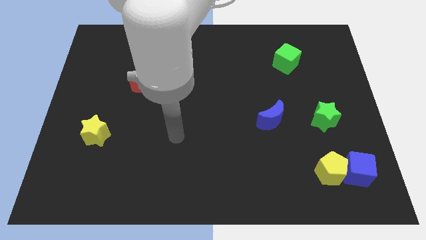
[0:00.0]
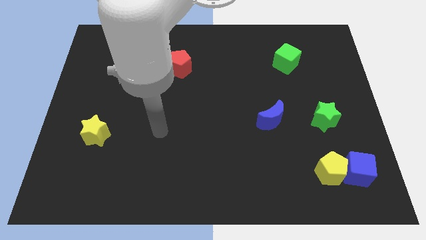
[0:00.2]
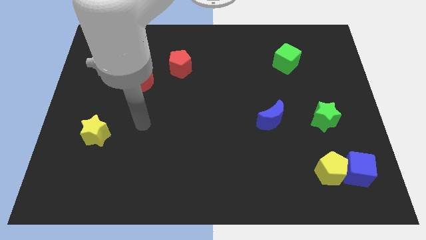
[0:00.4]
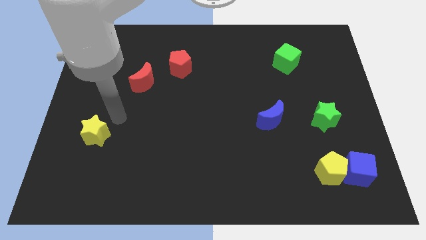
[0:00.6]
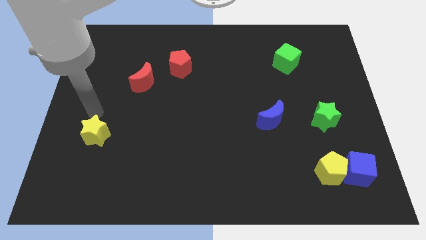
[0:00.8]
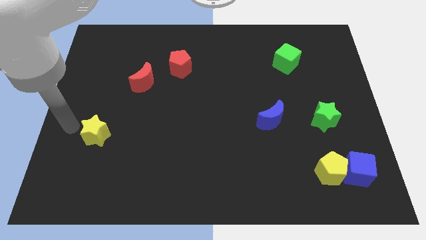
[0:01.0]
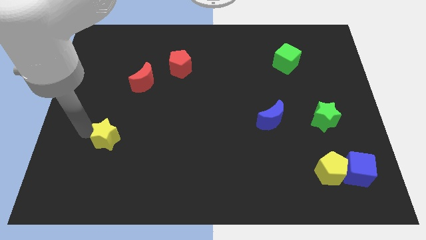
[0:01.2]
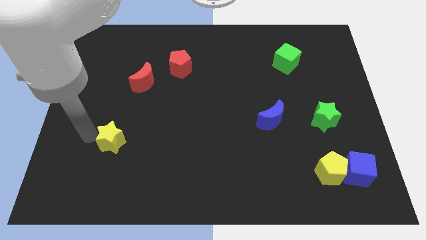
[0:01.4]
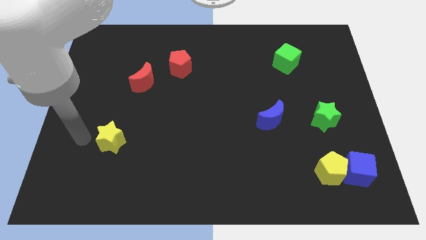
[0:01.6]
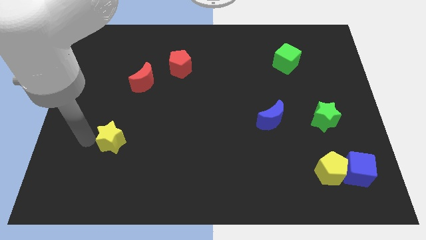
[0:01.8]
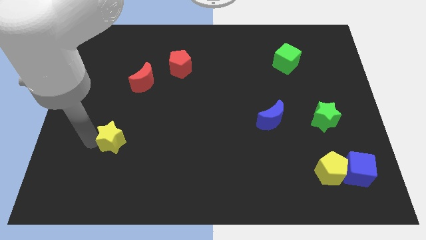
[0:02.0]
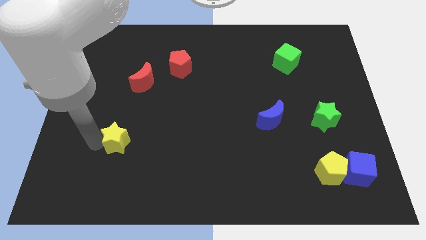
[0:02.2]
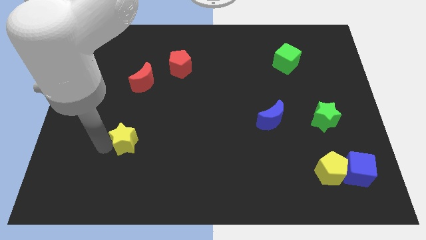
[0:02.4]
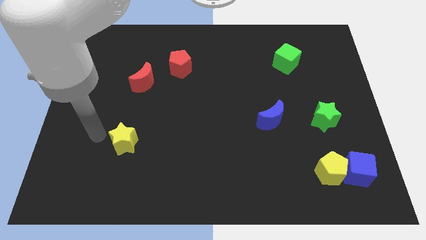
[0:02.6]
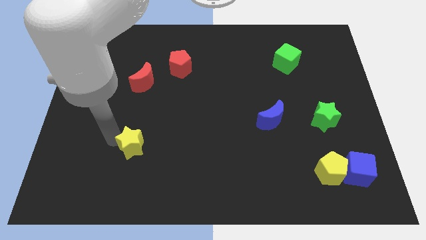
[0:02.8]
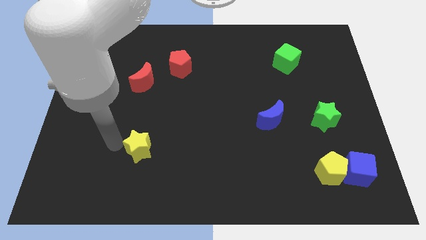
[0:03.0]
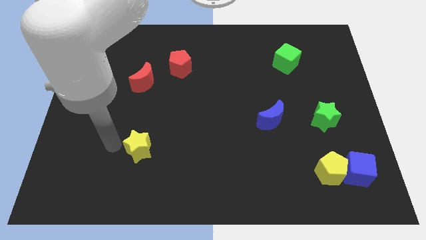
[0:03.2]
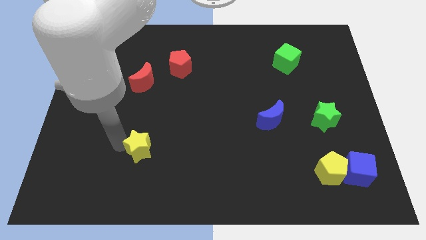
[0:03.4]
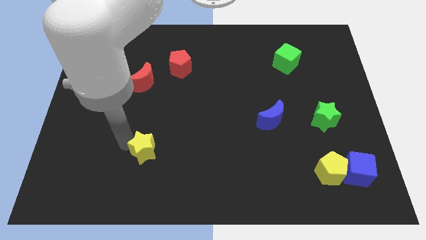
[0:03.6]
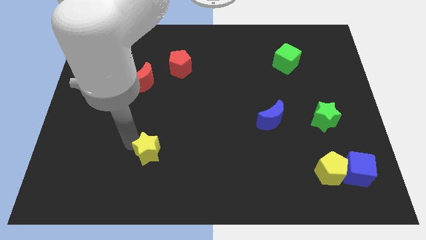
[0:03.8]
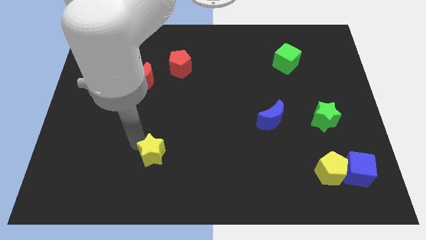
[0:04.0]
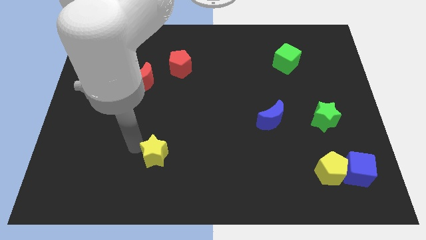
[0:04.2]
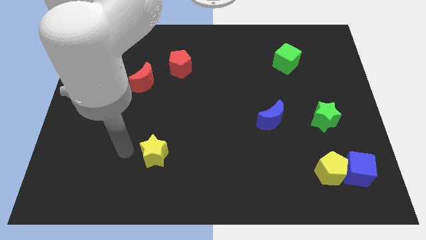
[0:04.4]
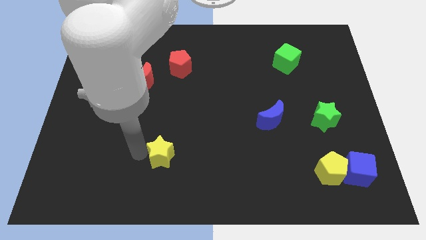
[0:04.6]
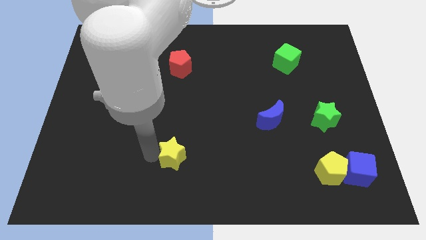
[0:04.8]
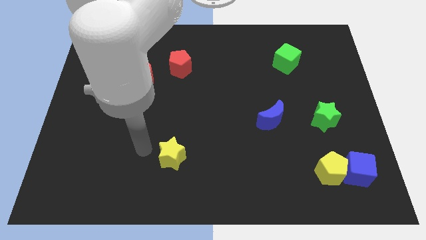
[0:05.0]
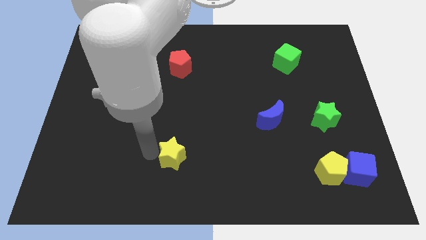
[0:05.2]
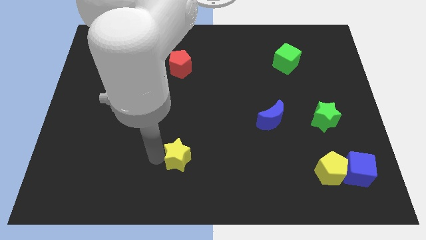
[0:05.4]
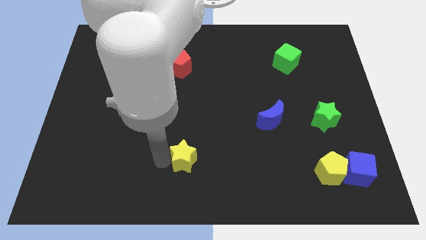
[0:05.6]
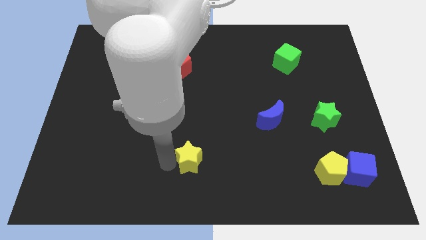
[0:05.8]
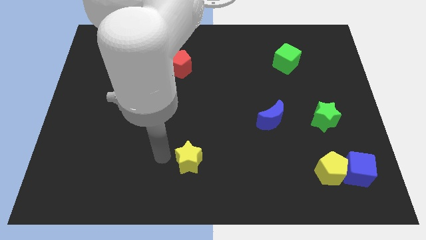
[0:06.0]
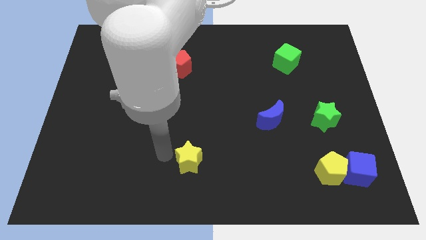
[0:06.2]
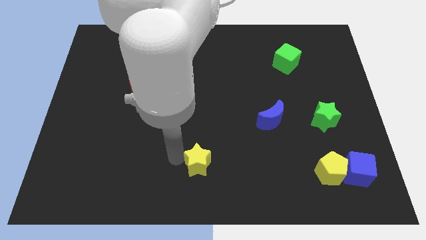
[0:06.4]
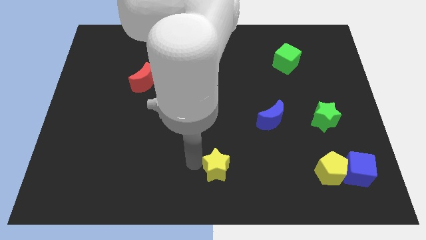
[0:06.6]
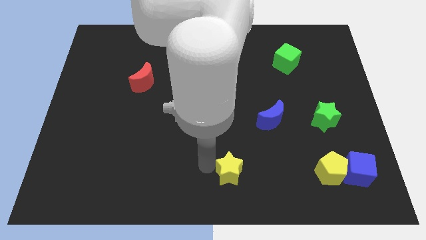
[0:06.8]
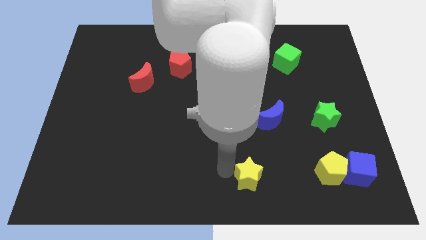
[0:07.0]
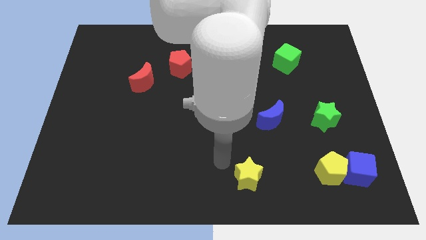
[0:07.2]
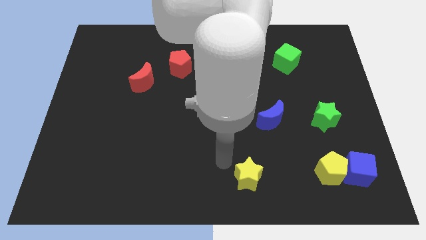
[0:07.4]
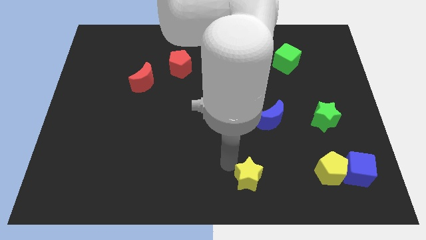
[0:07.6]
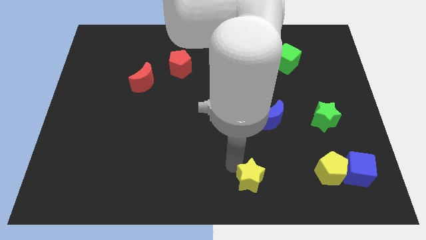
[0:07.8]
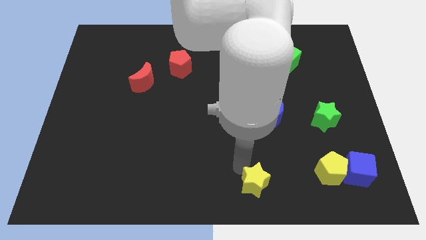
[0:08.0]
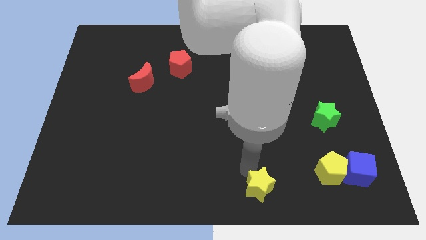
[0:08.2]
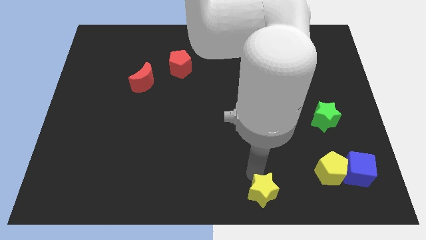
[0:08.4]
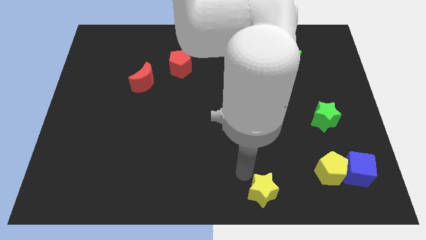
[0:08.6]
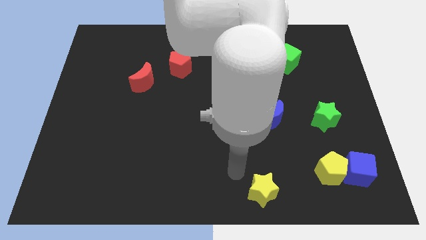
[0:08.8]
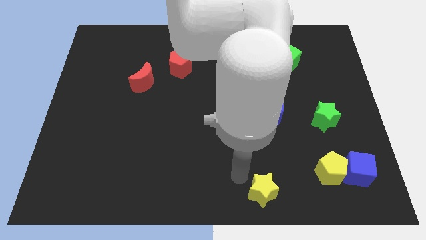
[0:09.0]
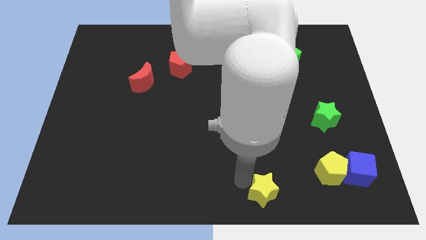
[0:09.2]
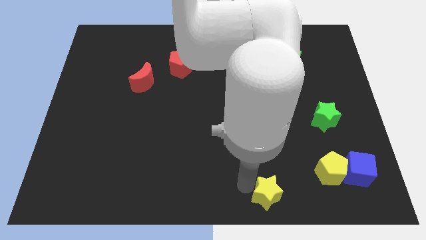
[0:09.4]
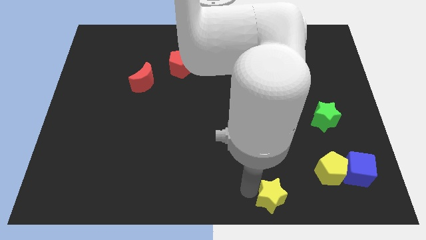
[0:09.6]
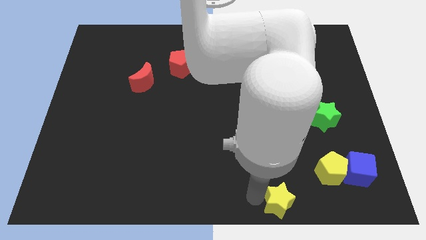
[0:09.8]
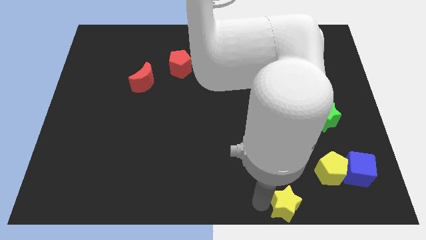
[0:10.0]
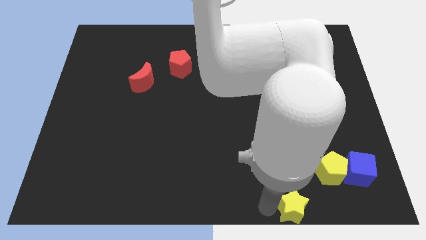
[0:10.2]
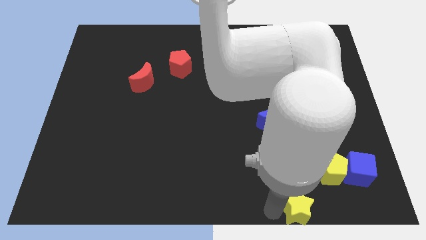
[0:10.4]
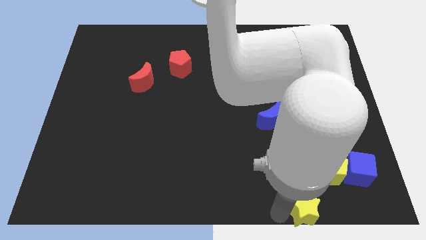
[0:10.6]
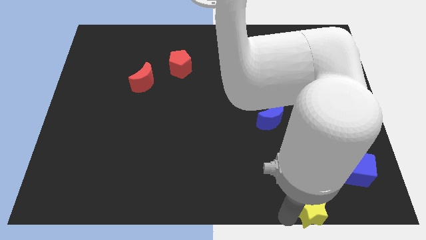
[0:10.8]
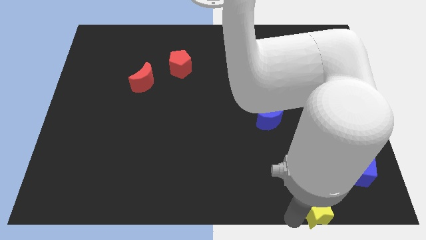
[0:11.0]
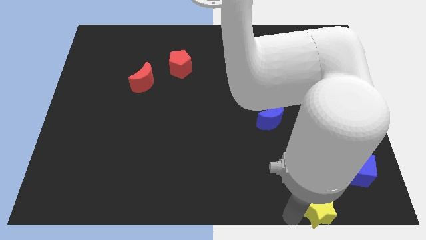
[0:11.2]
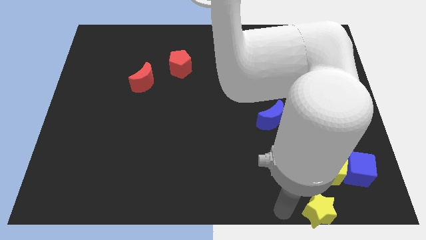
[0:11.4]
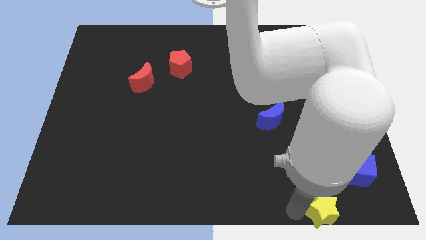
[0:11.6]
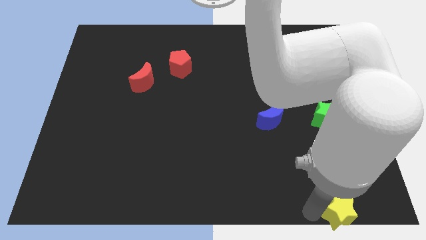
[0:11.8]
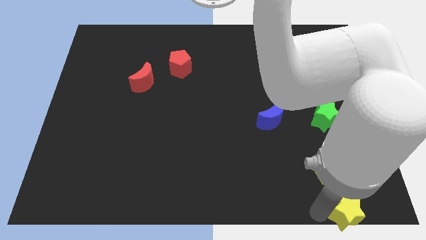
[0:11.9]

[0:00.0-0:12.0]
put the yellow star to the bottom right of the board

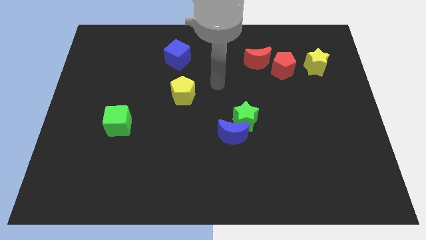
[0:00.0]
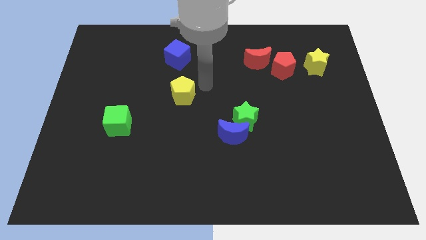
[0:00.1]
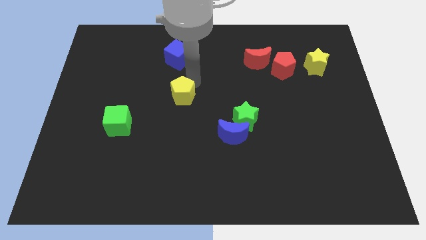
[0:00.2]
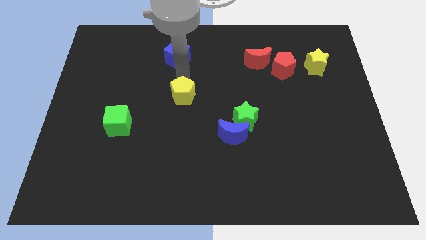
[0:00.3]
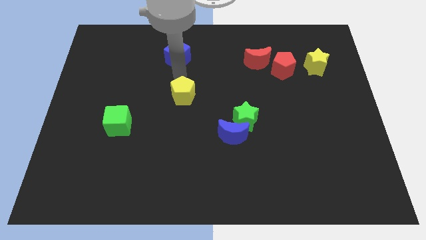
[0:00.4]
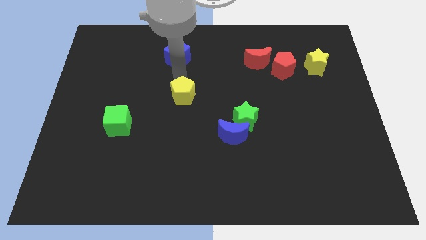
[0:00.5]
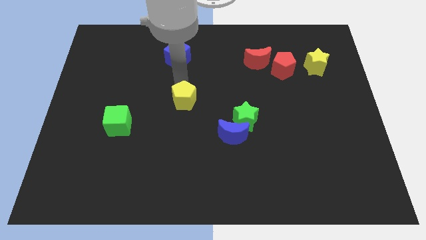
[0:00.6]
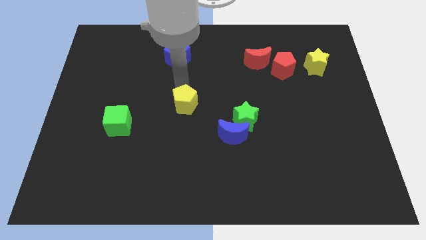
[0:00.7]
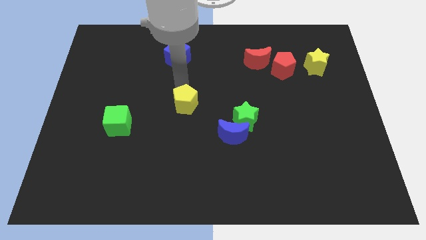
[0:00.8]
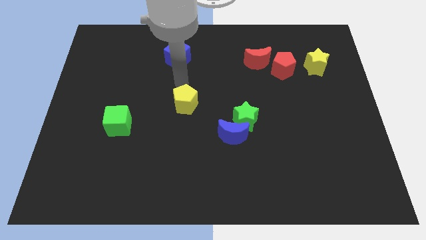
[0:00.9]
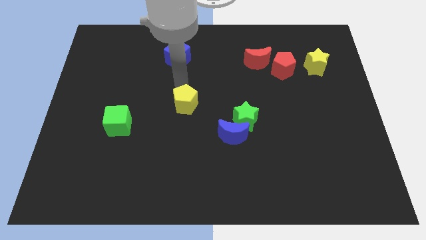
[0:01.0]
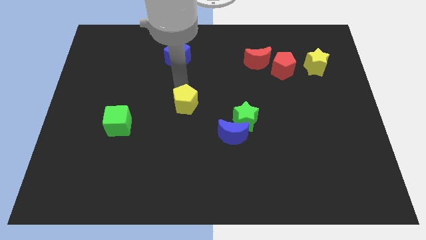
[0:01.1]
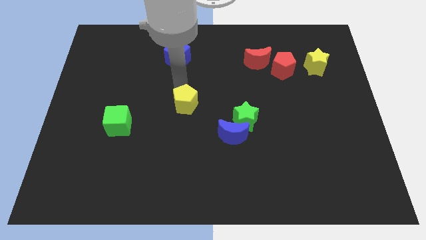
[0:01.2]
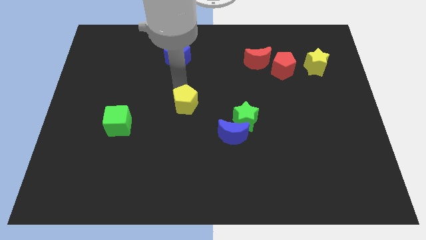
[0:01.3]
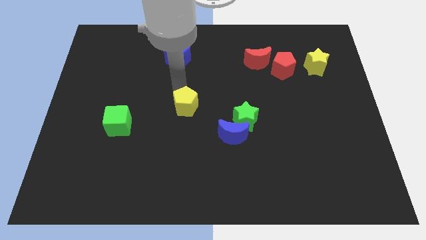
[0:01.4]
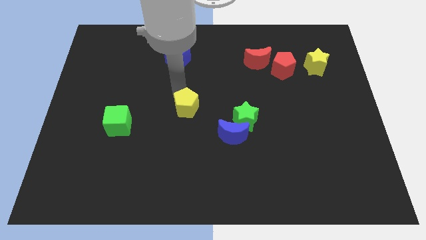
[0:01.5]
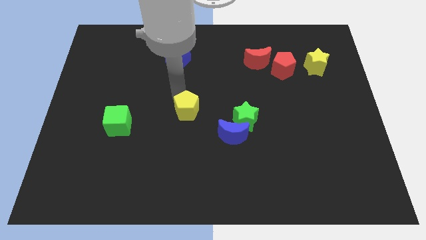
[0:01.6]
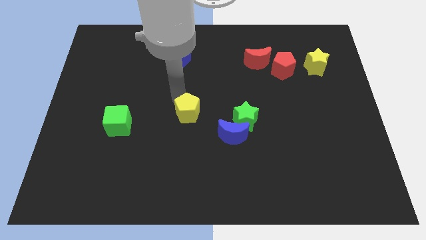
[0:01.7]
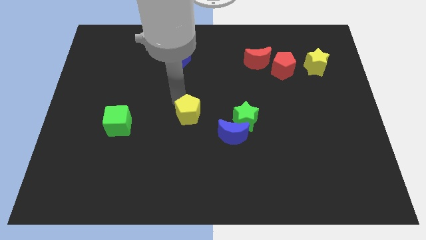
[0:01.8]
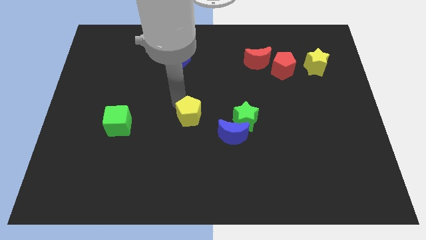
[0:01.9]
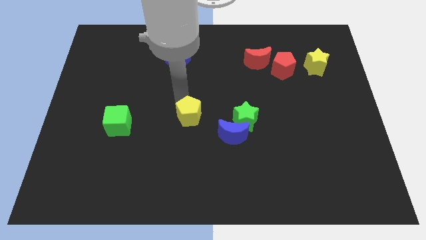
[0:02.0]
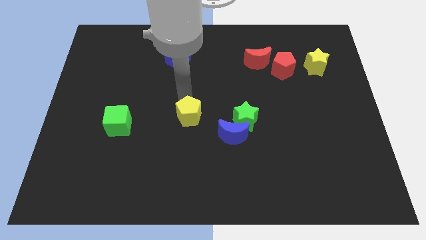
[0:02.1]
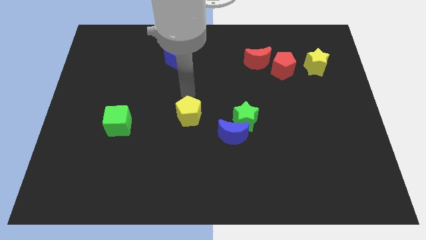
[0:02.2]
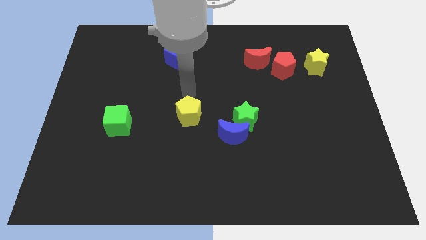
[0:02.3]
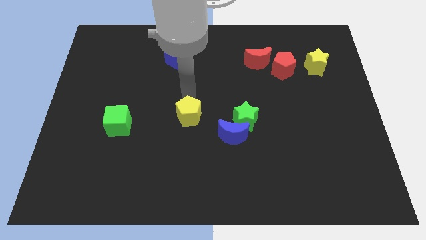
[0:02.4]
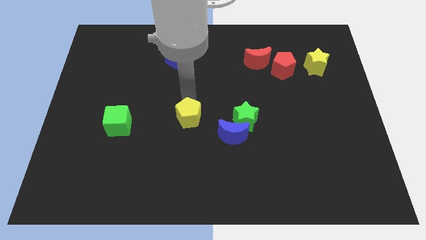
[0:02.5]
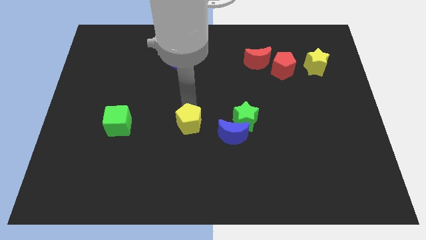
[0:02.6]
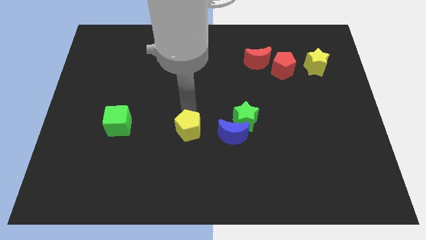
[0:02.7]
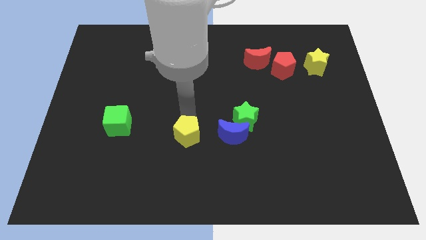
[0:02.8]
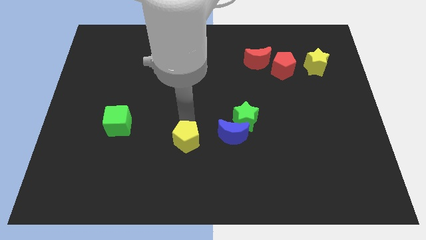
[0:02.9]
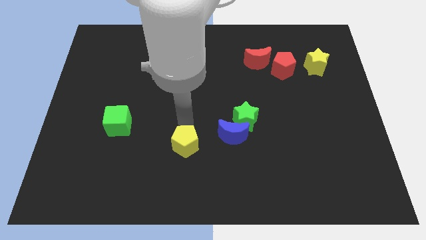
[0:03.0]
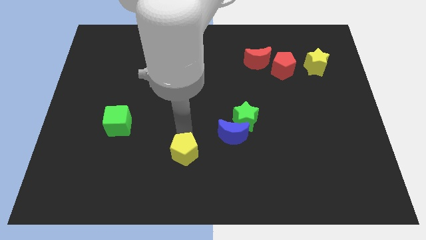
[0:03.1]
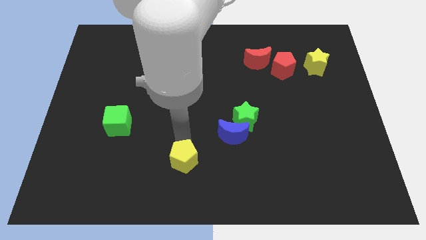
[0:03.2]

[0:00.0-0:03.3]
push the yellow pentagon to the bottom
